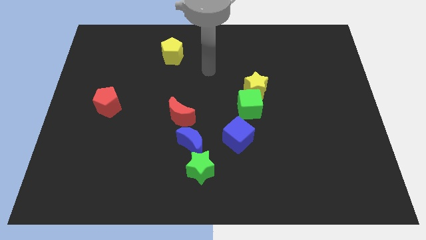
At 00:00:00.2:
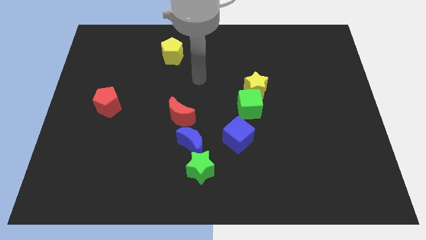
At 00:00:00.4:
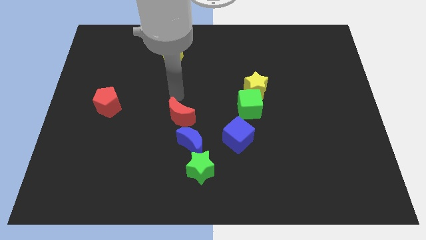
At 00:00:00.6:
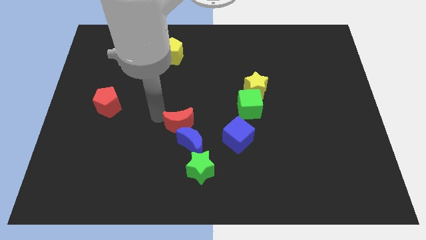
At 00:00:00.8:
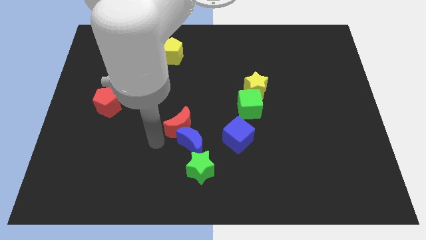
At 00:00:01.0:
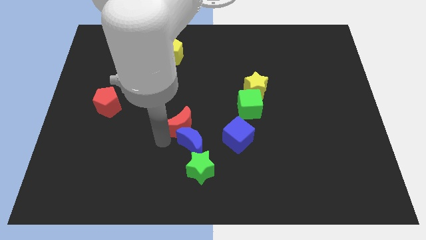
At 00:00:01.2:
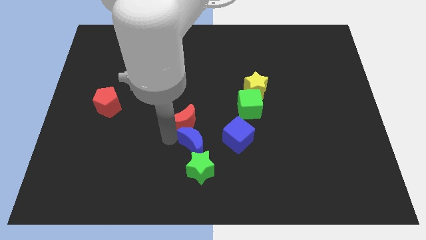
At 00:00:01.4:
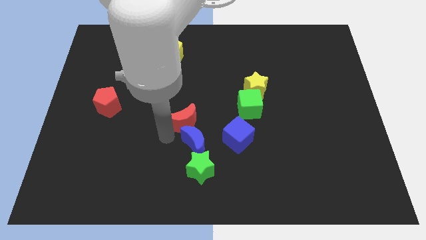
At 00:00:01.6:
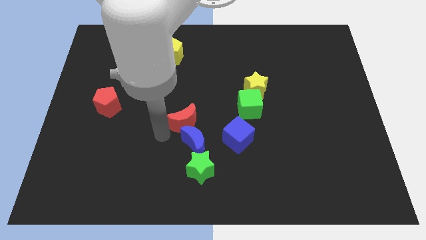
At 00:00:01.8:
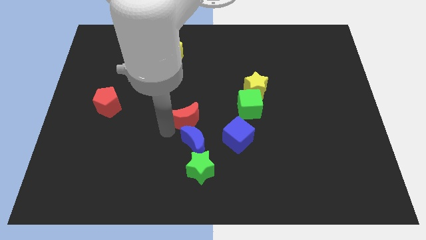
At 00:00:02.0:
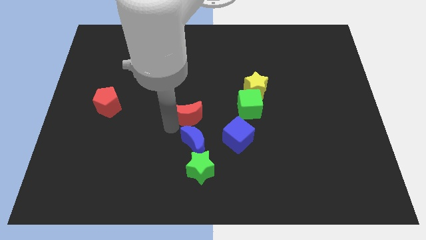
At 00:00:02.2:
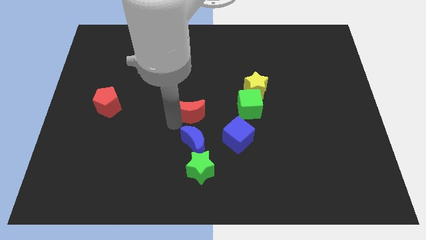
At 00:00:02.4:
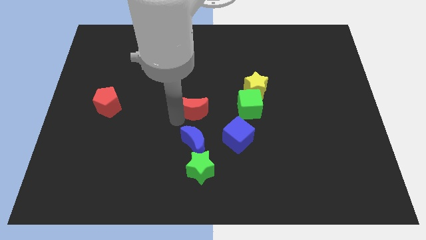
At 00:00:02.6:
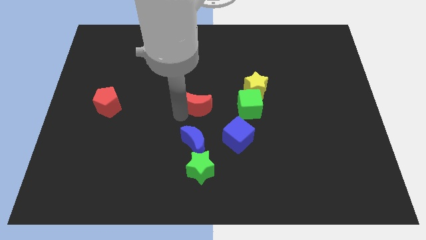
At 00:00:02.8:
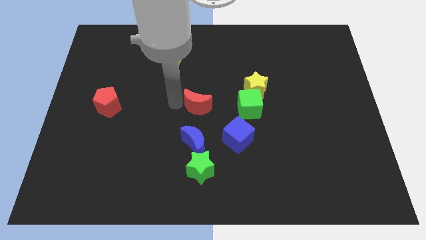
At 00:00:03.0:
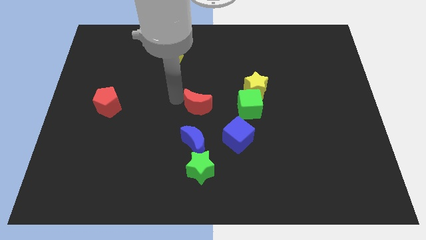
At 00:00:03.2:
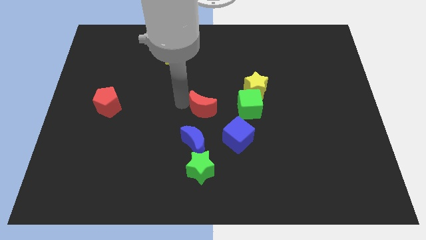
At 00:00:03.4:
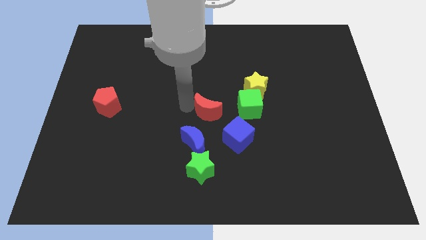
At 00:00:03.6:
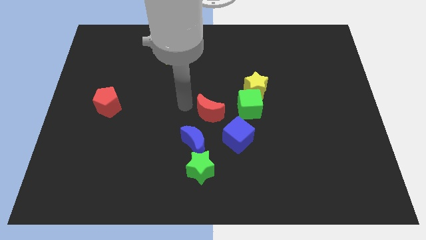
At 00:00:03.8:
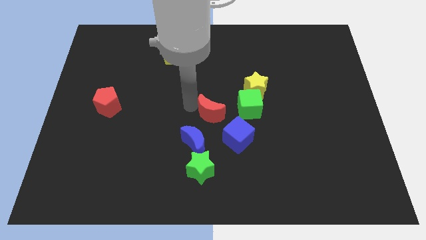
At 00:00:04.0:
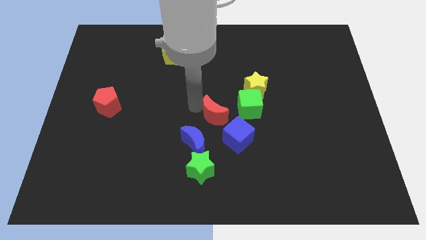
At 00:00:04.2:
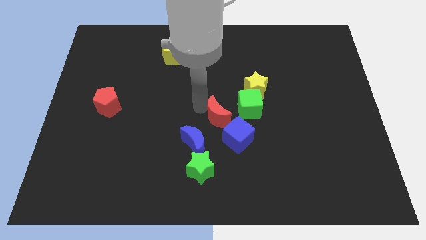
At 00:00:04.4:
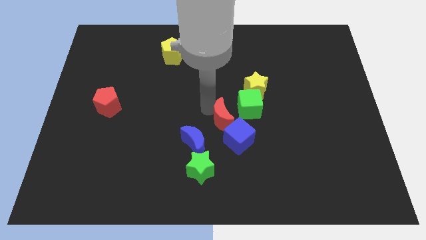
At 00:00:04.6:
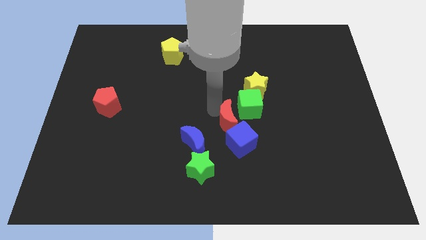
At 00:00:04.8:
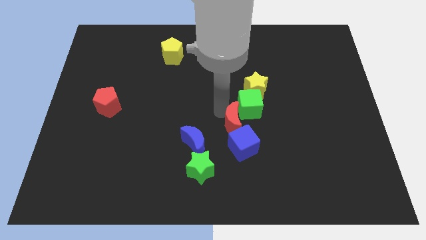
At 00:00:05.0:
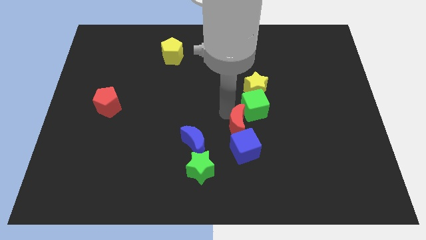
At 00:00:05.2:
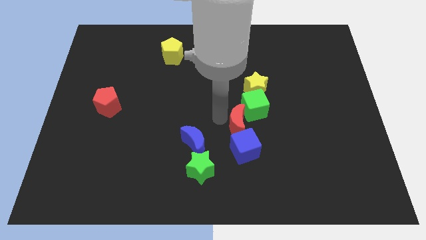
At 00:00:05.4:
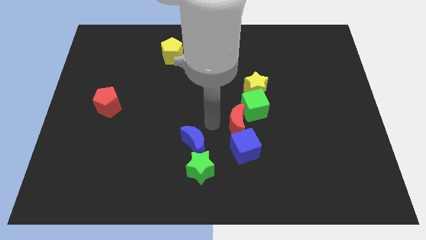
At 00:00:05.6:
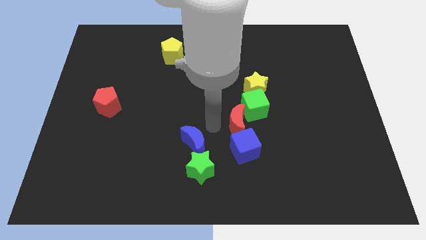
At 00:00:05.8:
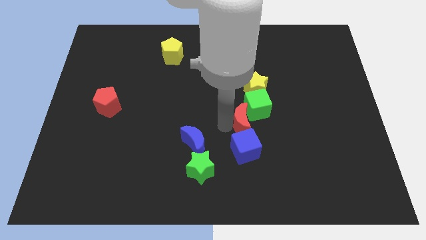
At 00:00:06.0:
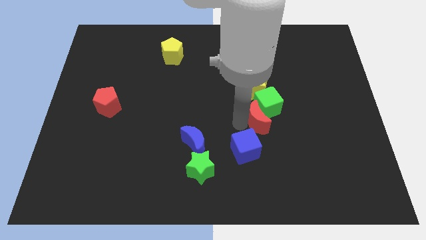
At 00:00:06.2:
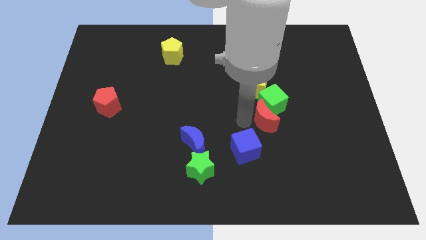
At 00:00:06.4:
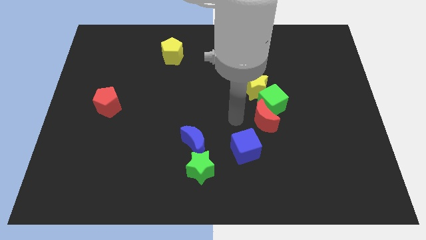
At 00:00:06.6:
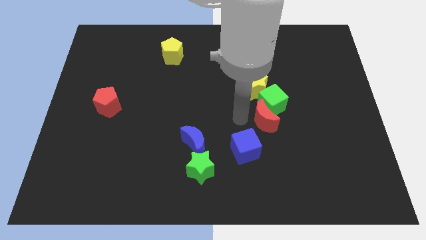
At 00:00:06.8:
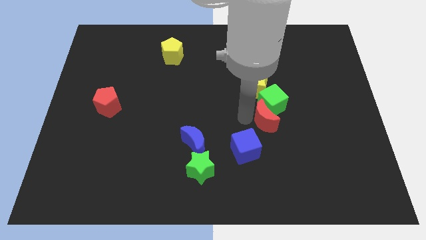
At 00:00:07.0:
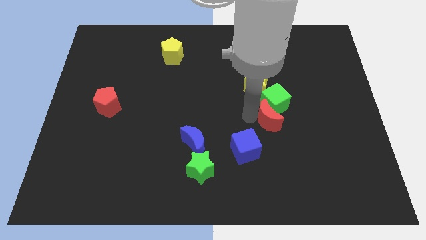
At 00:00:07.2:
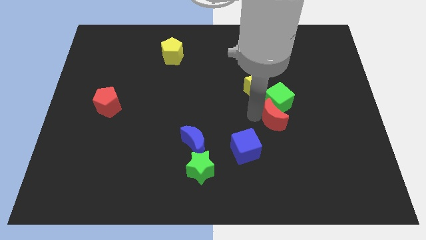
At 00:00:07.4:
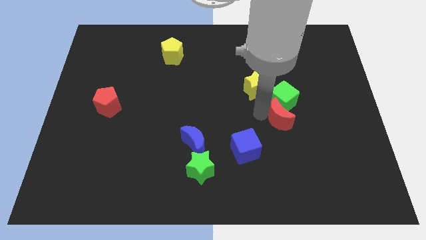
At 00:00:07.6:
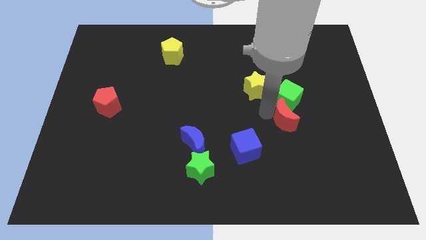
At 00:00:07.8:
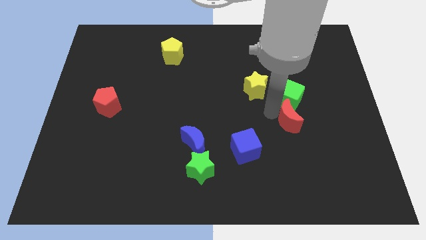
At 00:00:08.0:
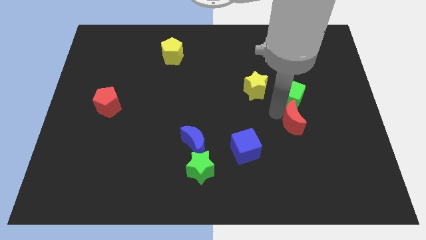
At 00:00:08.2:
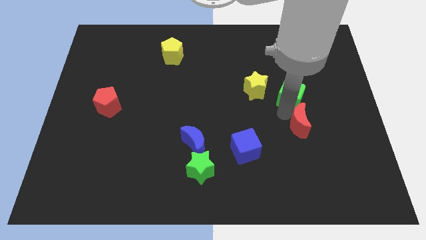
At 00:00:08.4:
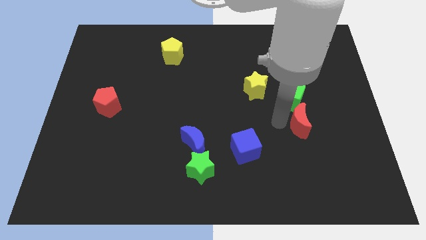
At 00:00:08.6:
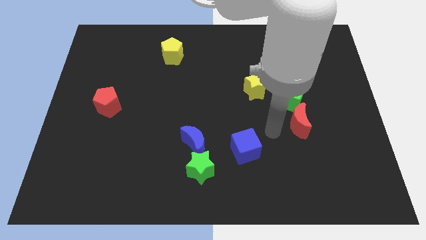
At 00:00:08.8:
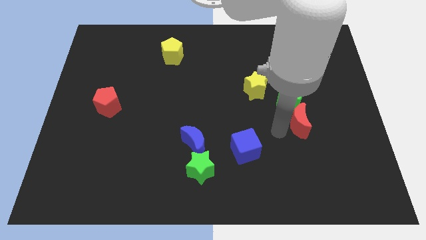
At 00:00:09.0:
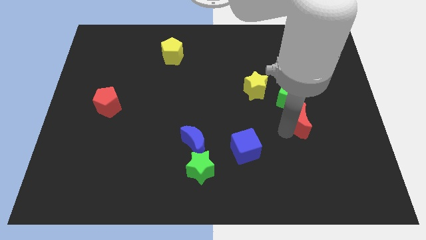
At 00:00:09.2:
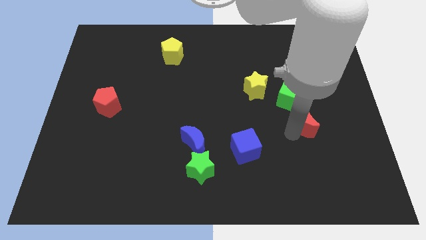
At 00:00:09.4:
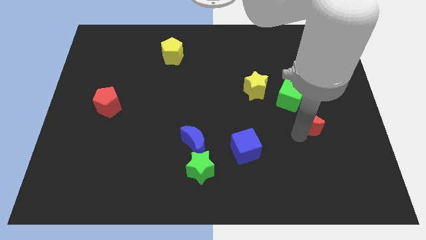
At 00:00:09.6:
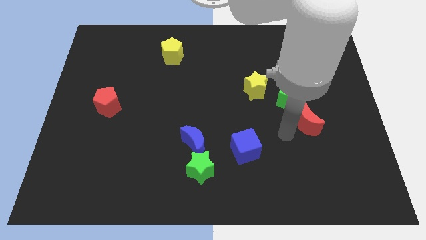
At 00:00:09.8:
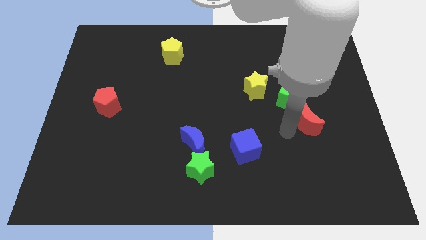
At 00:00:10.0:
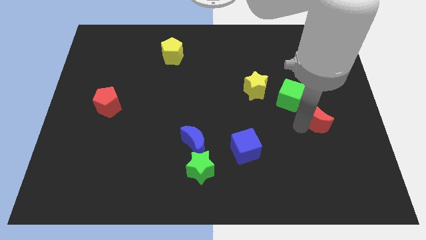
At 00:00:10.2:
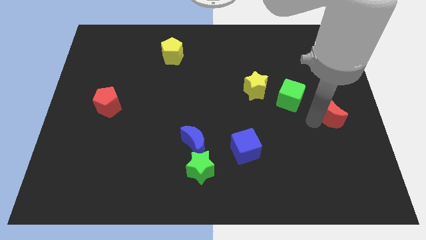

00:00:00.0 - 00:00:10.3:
move the red moon to the right side of the board

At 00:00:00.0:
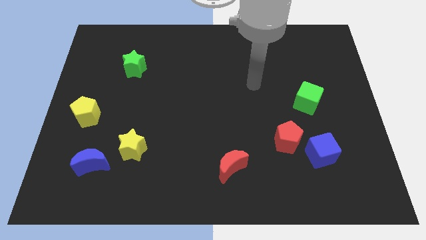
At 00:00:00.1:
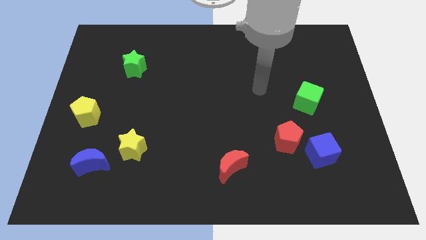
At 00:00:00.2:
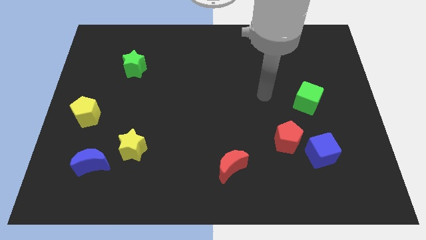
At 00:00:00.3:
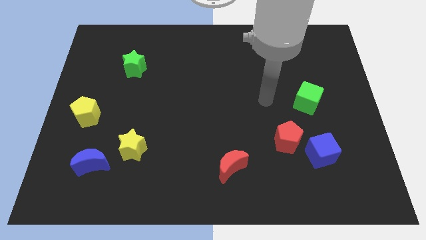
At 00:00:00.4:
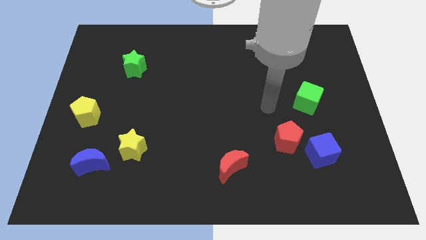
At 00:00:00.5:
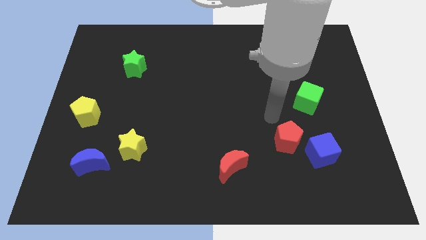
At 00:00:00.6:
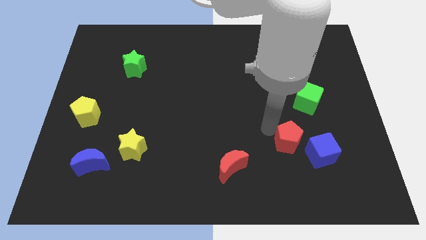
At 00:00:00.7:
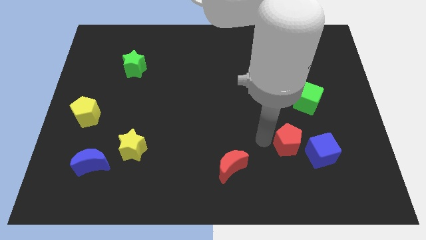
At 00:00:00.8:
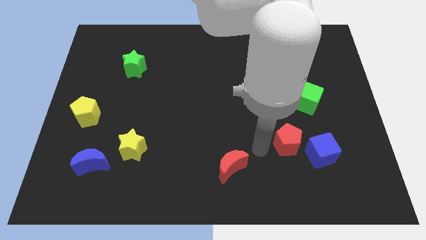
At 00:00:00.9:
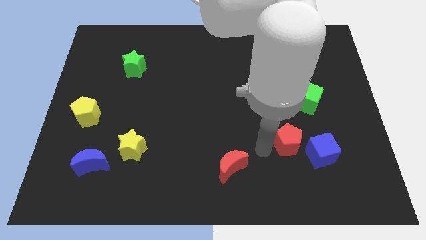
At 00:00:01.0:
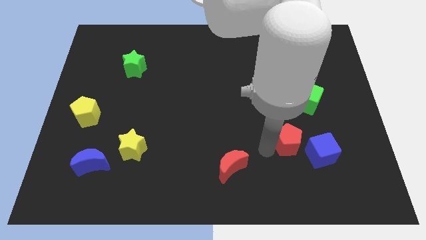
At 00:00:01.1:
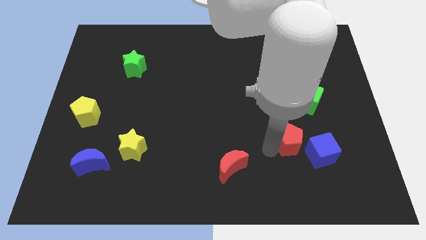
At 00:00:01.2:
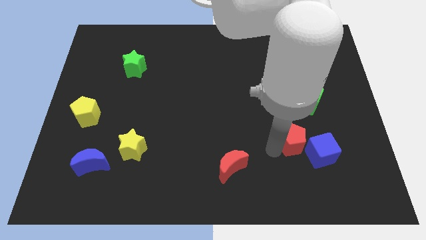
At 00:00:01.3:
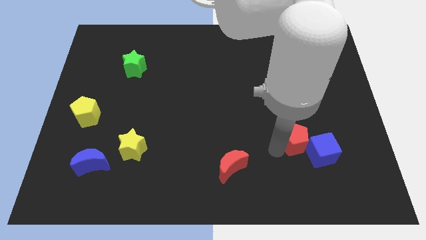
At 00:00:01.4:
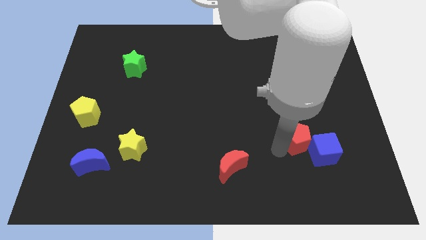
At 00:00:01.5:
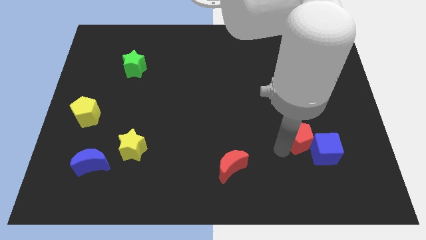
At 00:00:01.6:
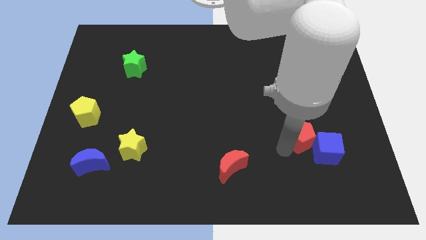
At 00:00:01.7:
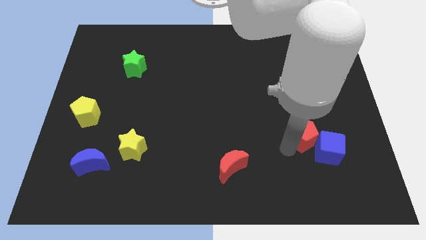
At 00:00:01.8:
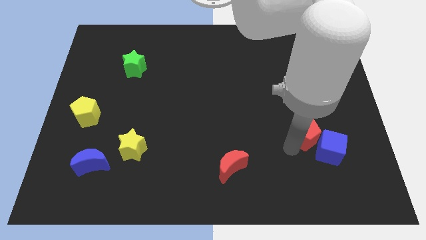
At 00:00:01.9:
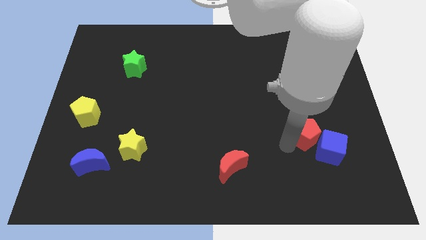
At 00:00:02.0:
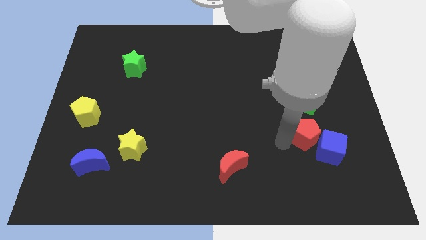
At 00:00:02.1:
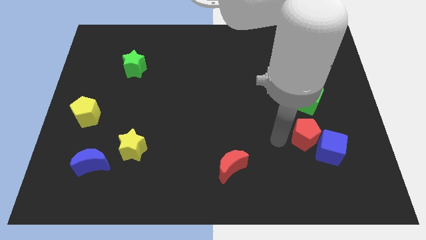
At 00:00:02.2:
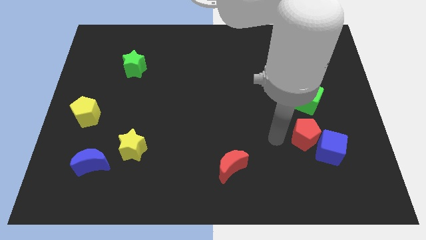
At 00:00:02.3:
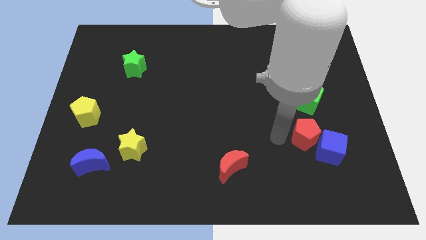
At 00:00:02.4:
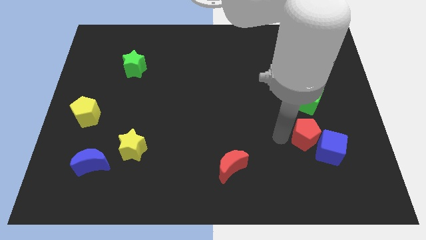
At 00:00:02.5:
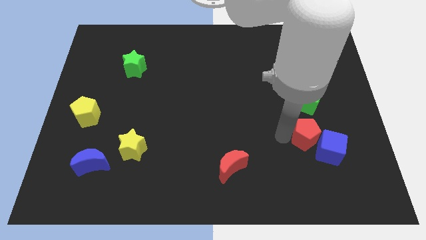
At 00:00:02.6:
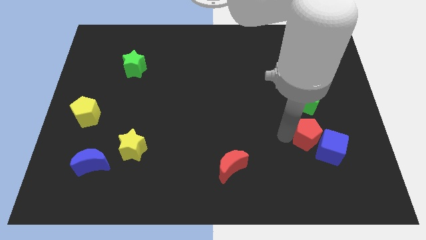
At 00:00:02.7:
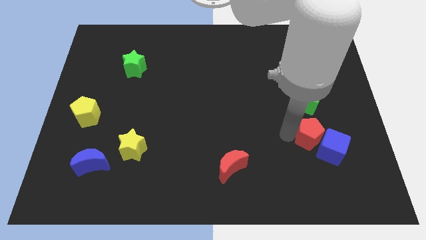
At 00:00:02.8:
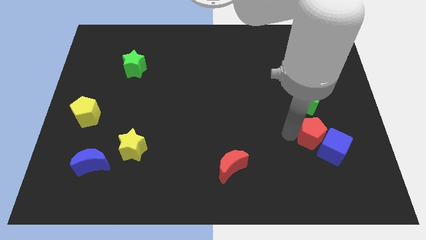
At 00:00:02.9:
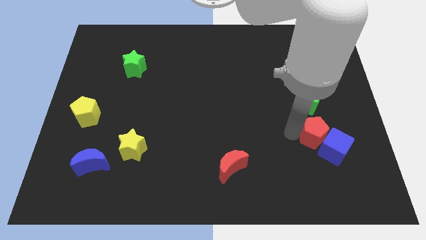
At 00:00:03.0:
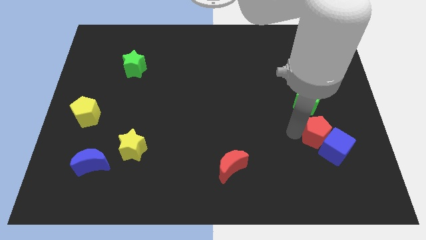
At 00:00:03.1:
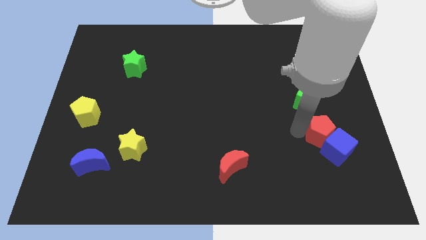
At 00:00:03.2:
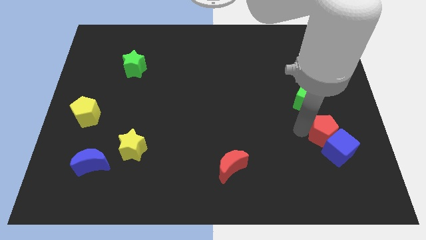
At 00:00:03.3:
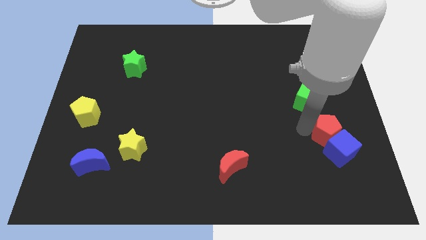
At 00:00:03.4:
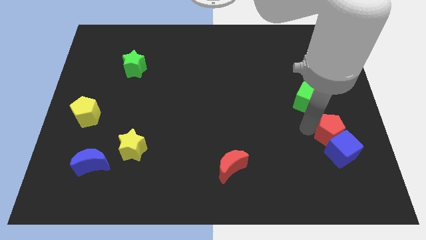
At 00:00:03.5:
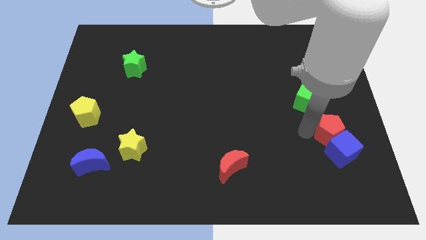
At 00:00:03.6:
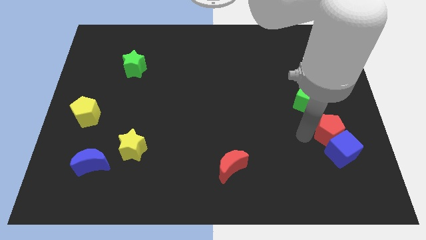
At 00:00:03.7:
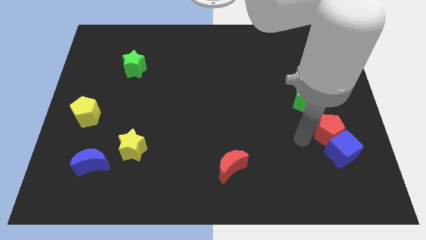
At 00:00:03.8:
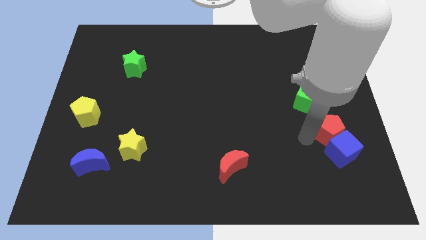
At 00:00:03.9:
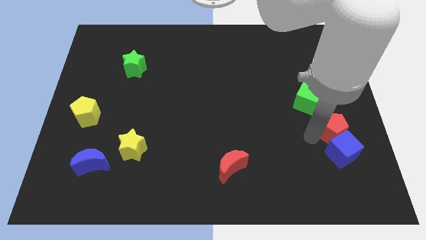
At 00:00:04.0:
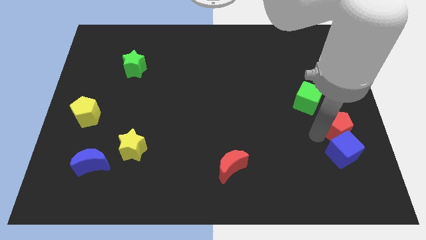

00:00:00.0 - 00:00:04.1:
put the red pentagon to the center right
